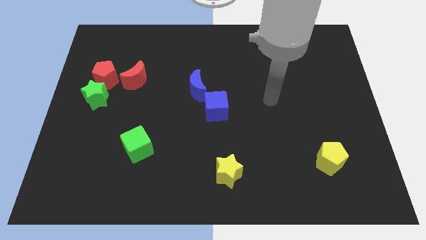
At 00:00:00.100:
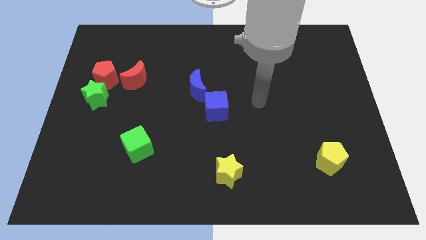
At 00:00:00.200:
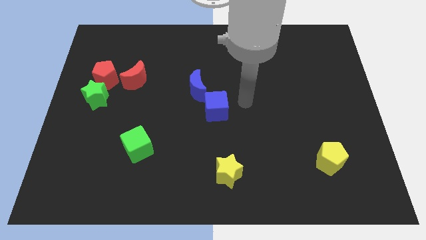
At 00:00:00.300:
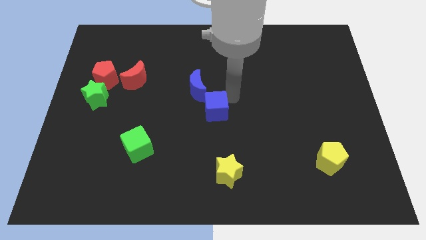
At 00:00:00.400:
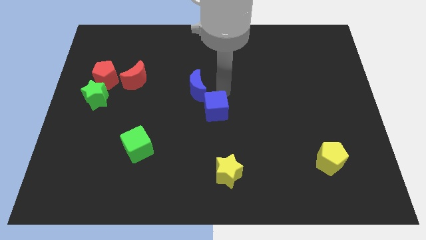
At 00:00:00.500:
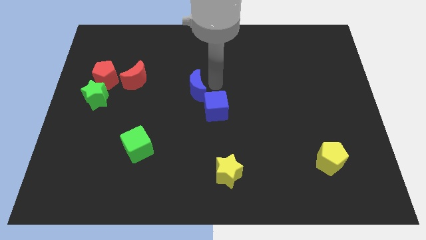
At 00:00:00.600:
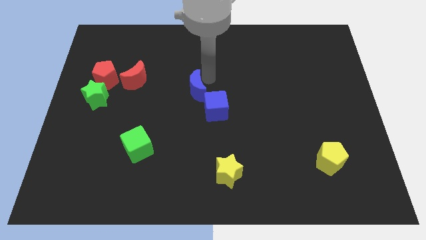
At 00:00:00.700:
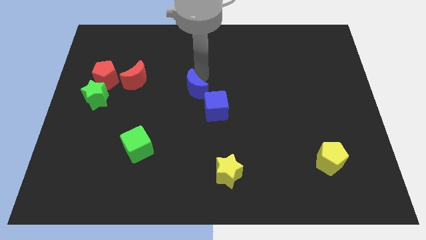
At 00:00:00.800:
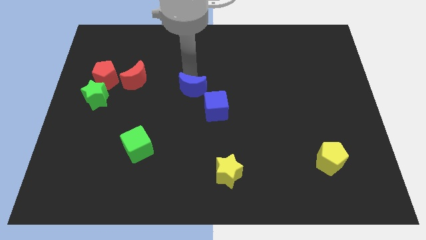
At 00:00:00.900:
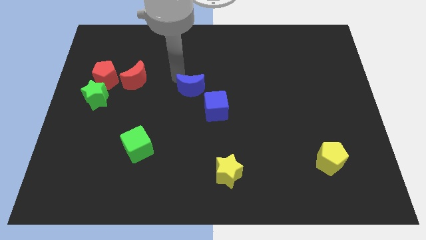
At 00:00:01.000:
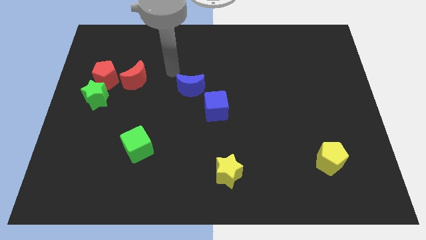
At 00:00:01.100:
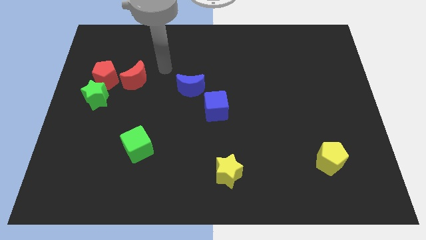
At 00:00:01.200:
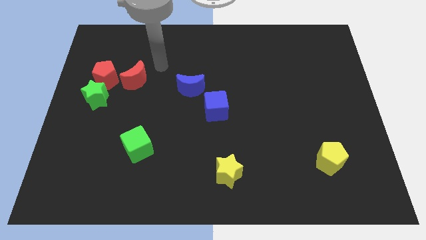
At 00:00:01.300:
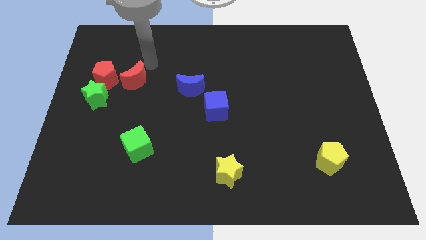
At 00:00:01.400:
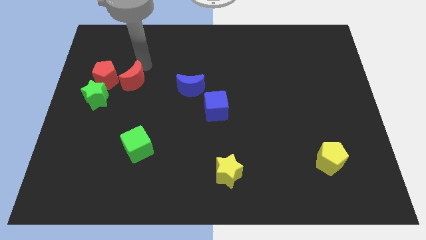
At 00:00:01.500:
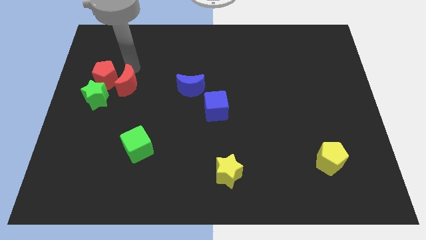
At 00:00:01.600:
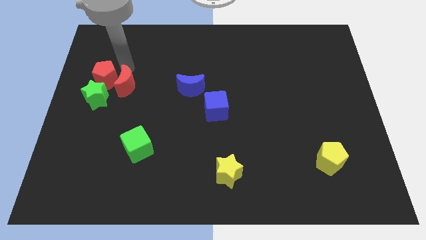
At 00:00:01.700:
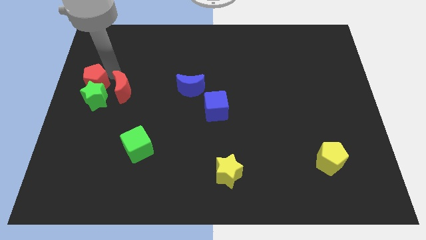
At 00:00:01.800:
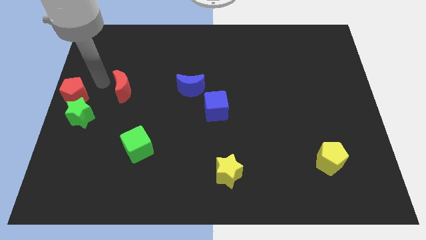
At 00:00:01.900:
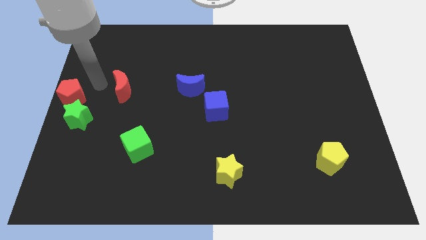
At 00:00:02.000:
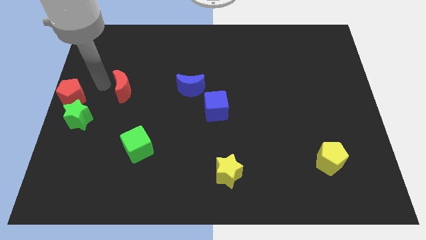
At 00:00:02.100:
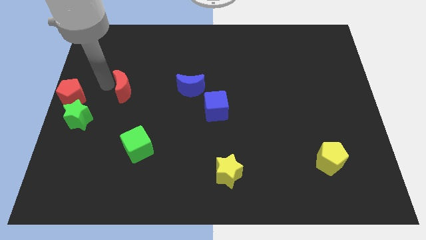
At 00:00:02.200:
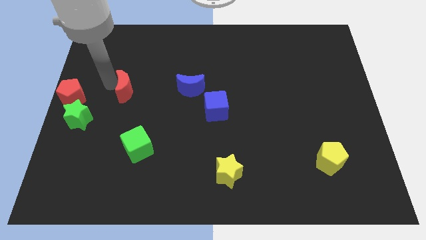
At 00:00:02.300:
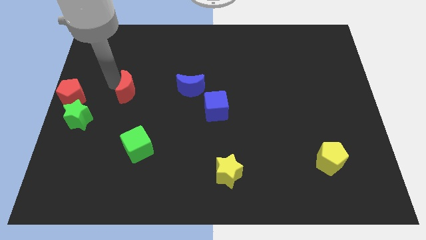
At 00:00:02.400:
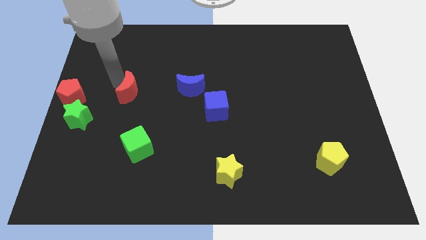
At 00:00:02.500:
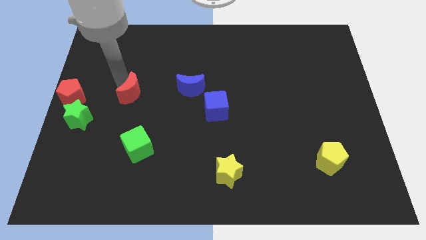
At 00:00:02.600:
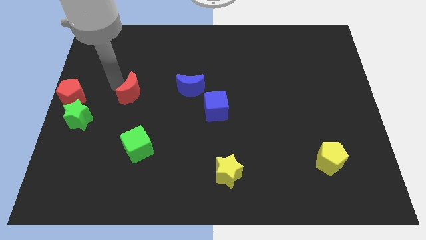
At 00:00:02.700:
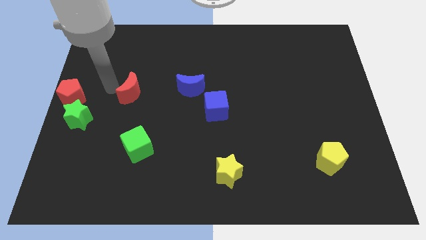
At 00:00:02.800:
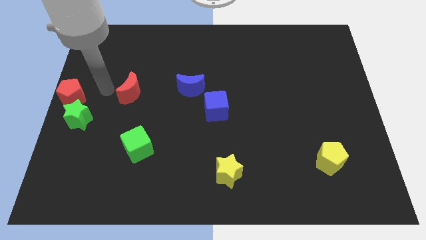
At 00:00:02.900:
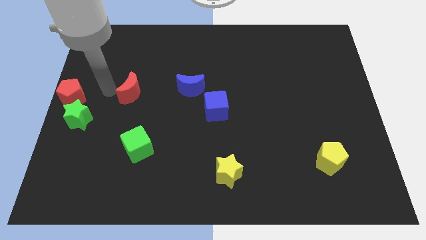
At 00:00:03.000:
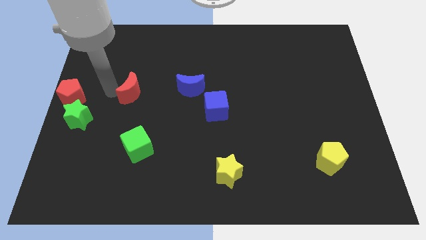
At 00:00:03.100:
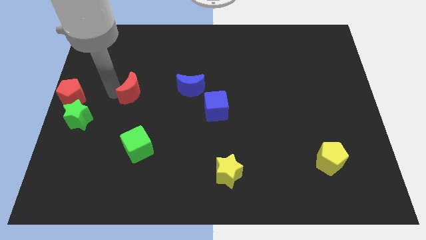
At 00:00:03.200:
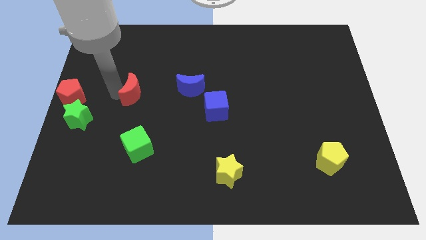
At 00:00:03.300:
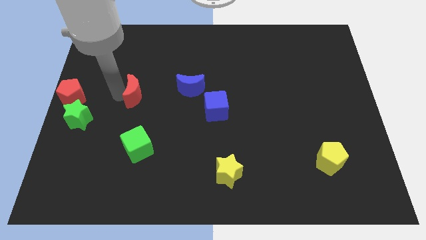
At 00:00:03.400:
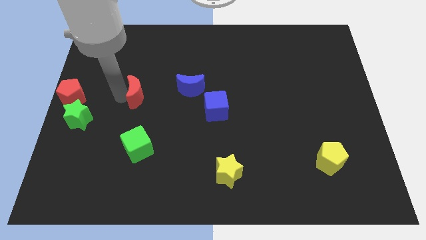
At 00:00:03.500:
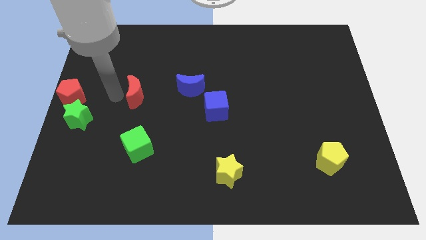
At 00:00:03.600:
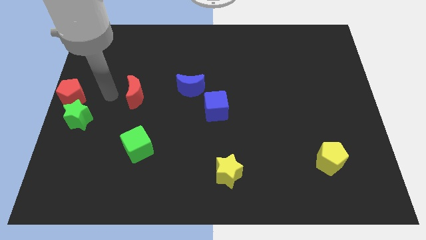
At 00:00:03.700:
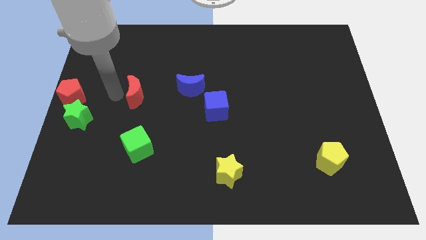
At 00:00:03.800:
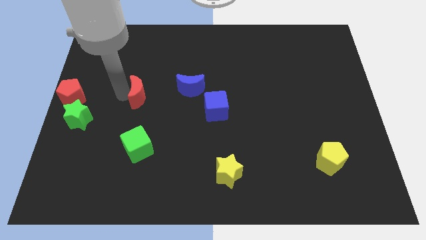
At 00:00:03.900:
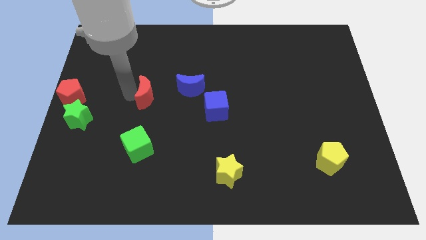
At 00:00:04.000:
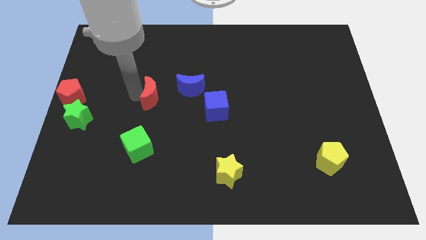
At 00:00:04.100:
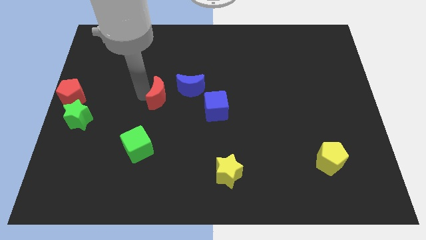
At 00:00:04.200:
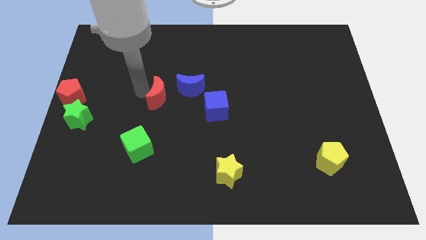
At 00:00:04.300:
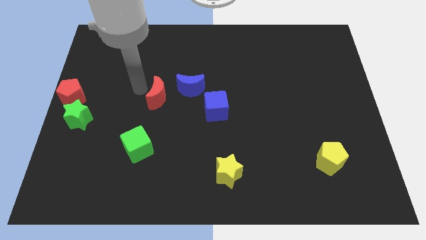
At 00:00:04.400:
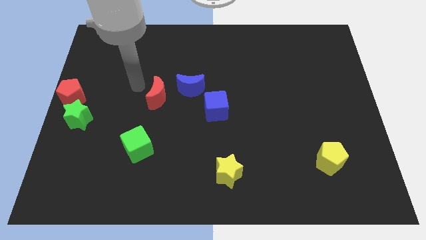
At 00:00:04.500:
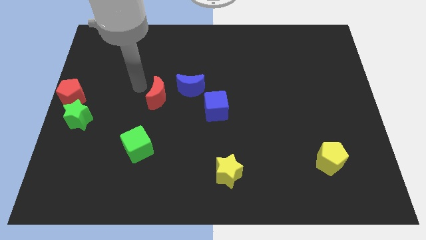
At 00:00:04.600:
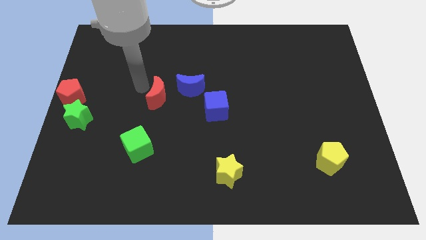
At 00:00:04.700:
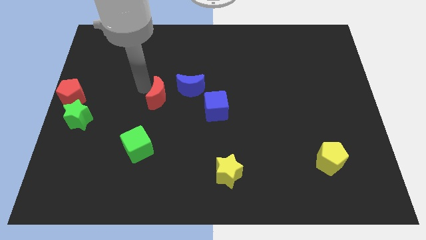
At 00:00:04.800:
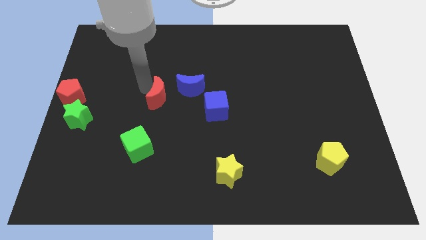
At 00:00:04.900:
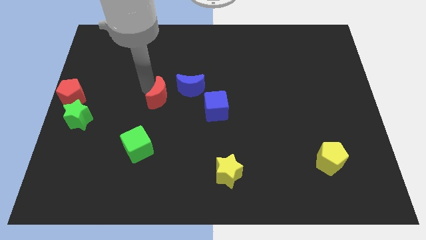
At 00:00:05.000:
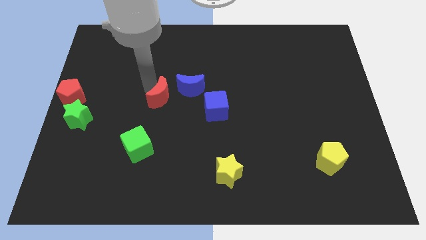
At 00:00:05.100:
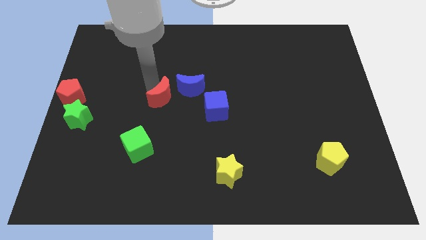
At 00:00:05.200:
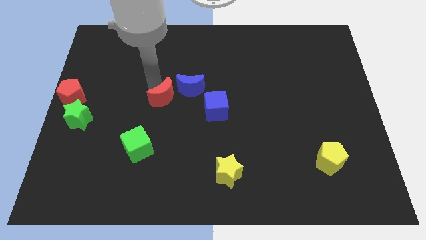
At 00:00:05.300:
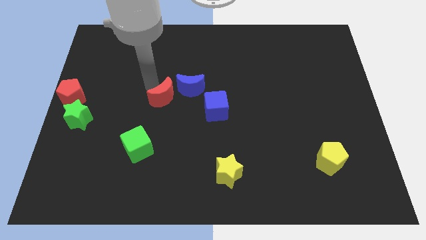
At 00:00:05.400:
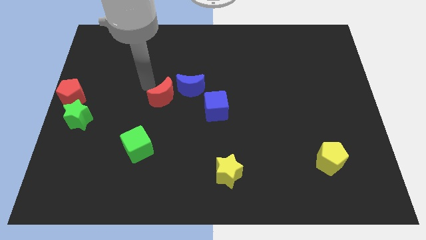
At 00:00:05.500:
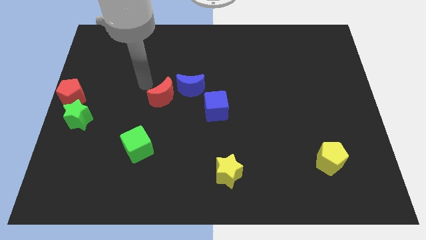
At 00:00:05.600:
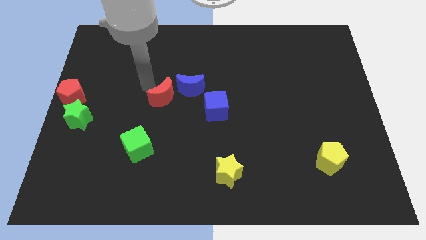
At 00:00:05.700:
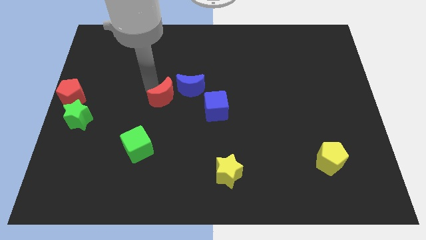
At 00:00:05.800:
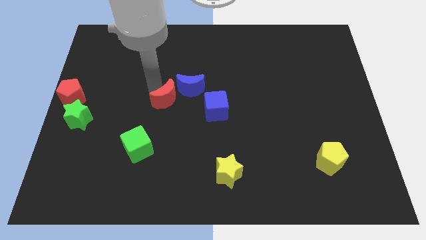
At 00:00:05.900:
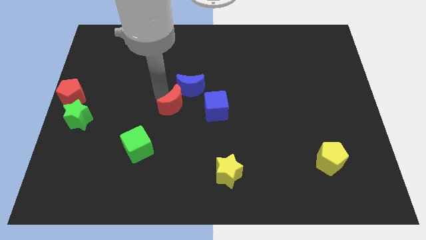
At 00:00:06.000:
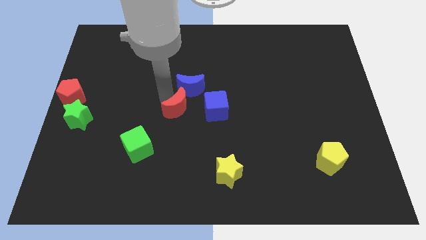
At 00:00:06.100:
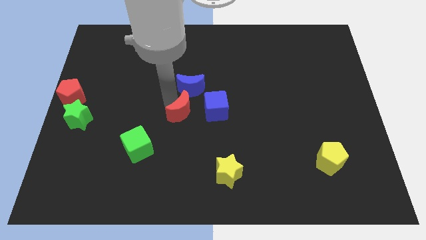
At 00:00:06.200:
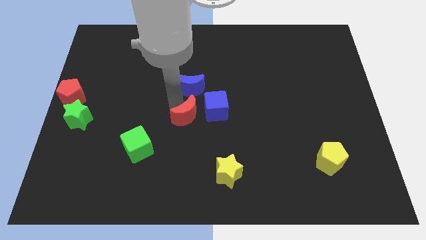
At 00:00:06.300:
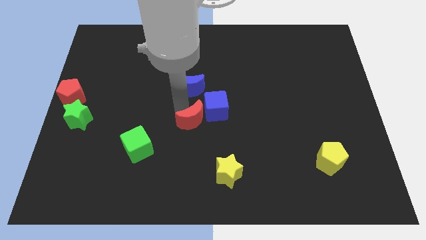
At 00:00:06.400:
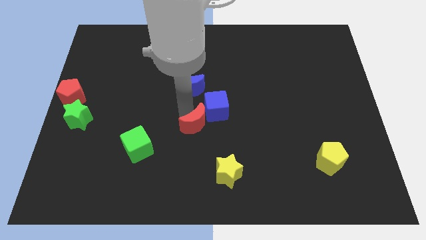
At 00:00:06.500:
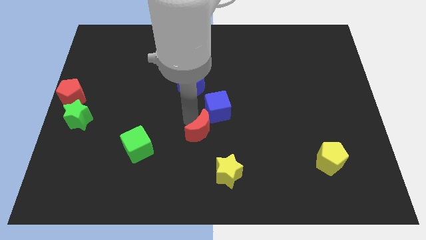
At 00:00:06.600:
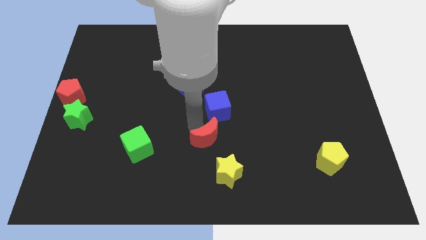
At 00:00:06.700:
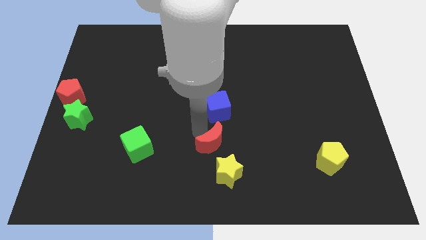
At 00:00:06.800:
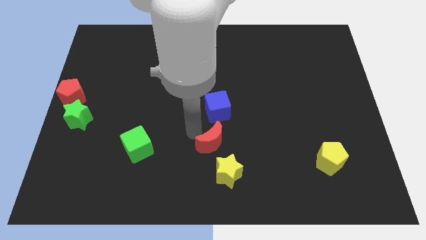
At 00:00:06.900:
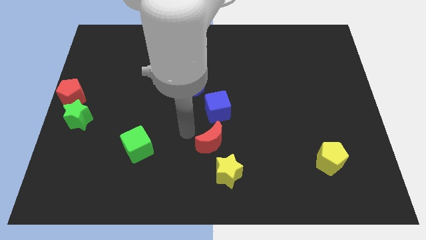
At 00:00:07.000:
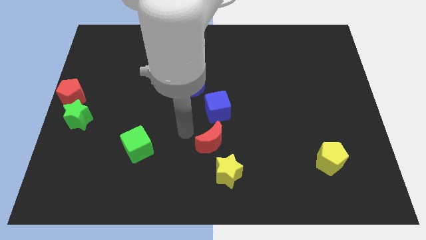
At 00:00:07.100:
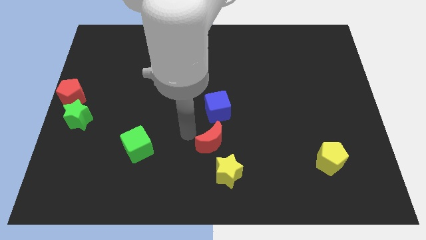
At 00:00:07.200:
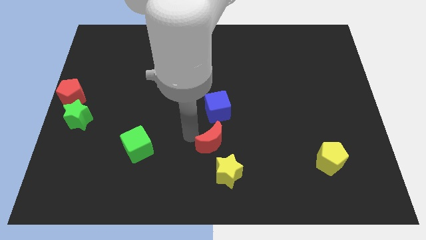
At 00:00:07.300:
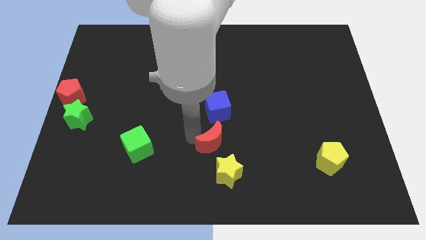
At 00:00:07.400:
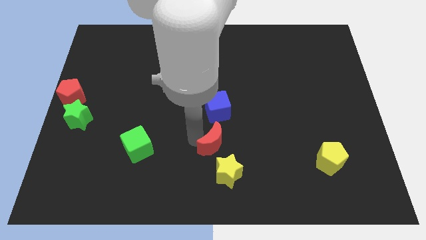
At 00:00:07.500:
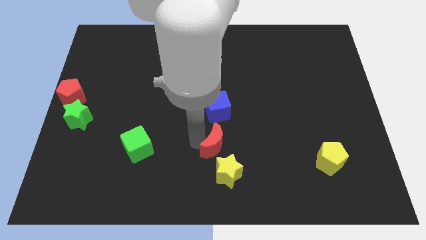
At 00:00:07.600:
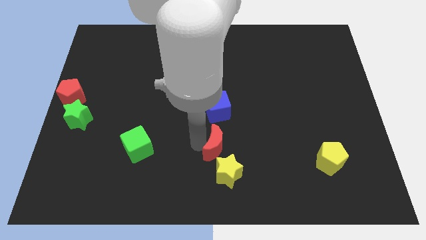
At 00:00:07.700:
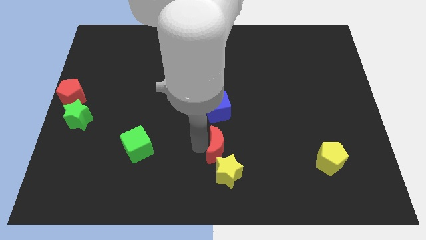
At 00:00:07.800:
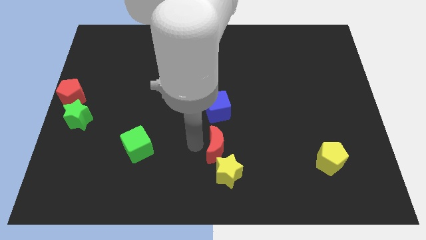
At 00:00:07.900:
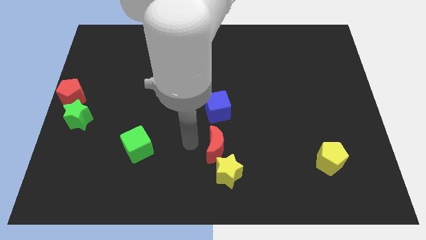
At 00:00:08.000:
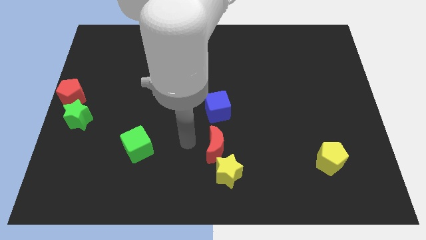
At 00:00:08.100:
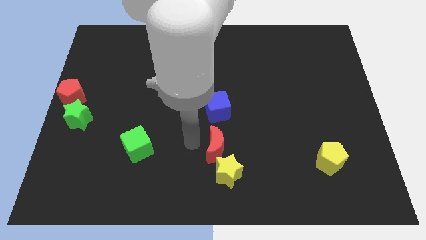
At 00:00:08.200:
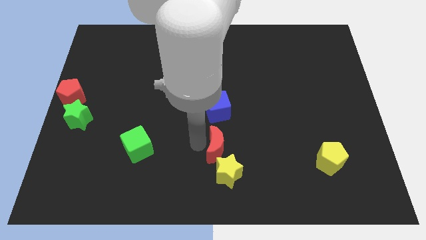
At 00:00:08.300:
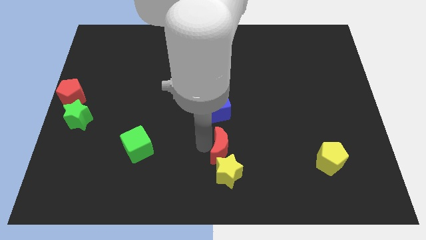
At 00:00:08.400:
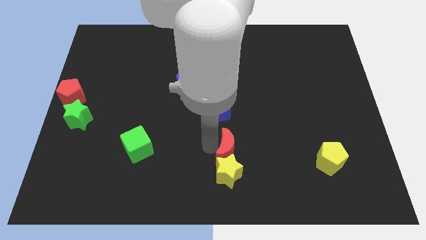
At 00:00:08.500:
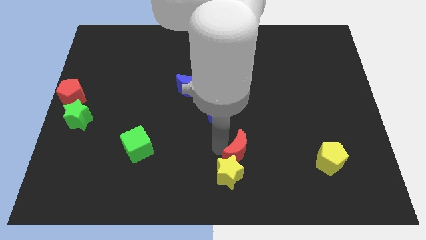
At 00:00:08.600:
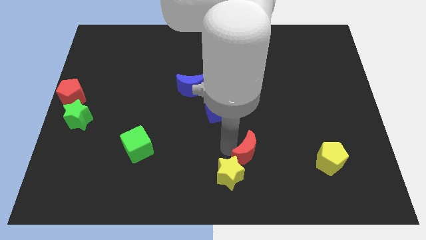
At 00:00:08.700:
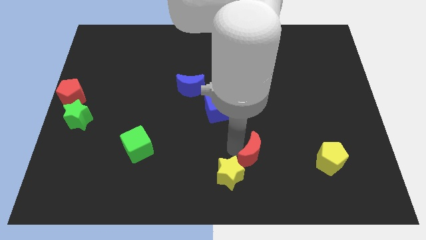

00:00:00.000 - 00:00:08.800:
move the red moon to the right of the yellow star
